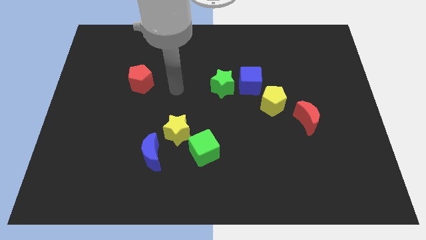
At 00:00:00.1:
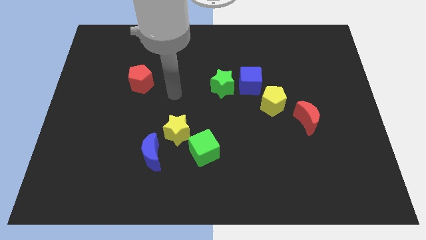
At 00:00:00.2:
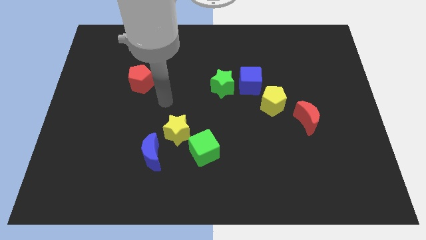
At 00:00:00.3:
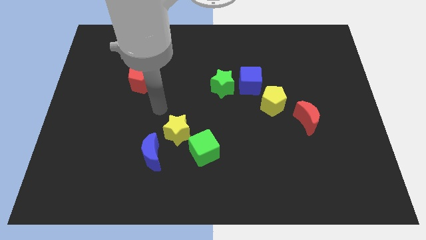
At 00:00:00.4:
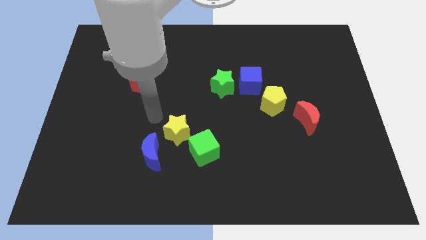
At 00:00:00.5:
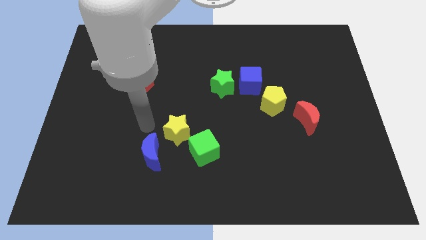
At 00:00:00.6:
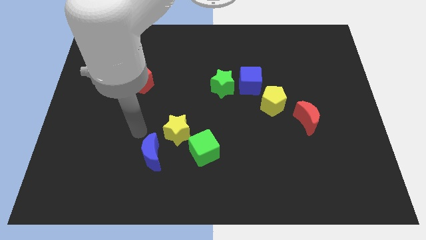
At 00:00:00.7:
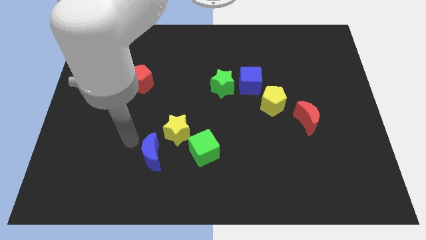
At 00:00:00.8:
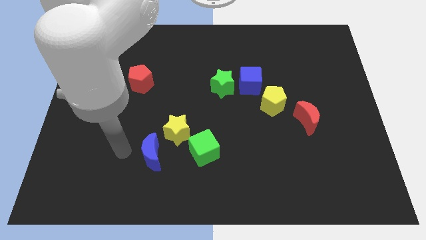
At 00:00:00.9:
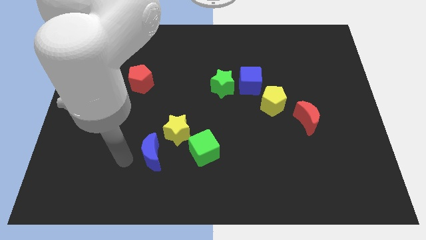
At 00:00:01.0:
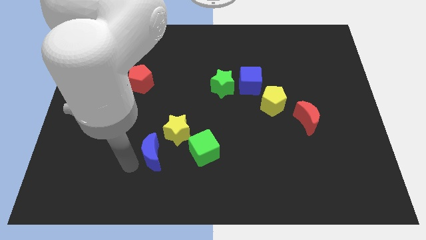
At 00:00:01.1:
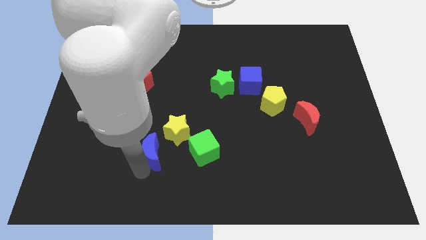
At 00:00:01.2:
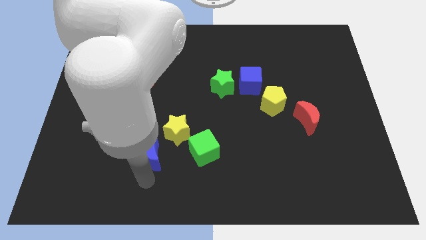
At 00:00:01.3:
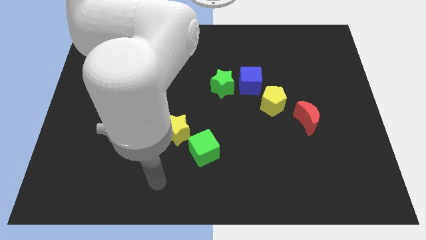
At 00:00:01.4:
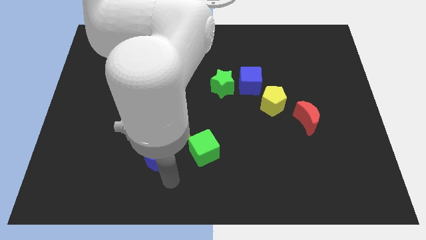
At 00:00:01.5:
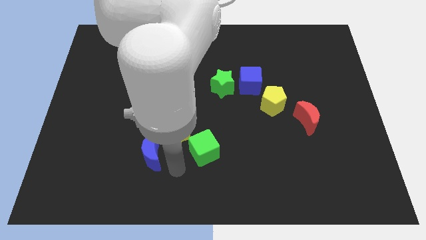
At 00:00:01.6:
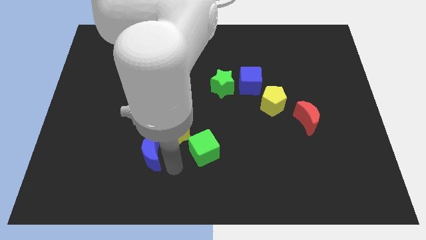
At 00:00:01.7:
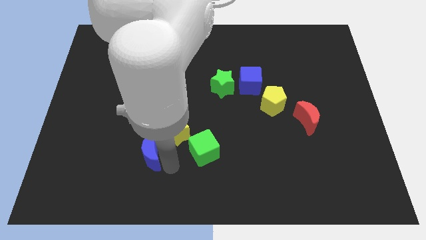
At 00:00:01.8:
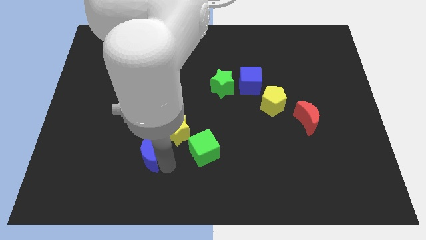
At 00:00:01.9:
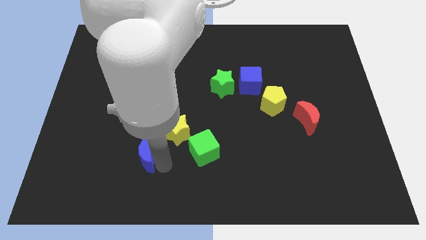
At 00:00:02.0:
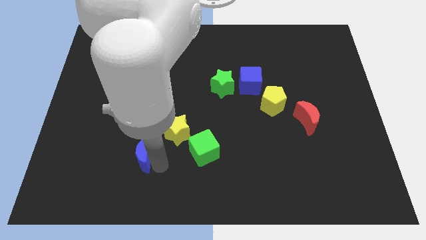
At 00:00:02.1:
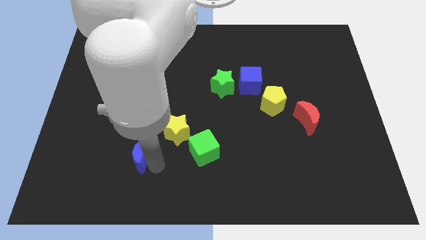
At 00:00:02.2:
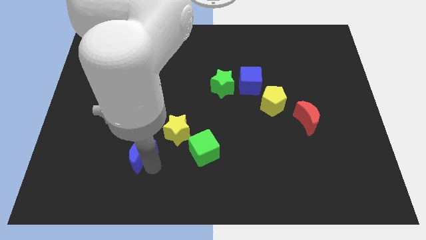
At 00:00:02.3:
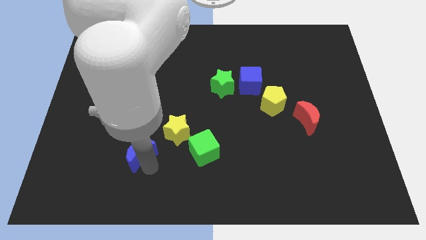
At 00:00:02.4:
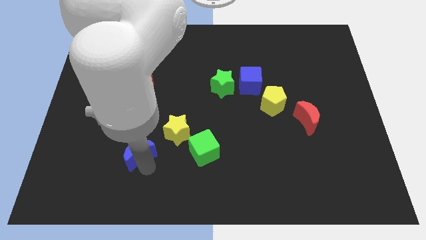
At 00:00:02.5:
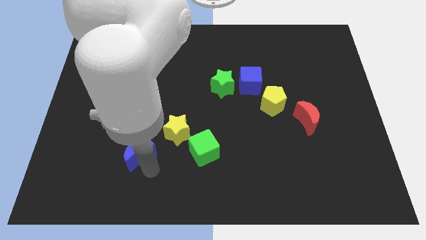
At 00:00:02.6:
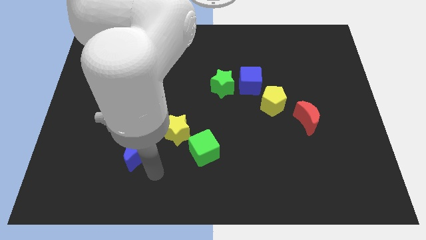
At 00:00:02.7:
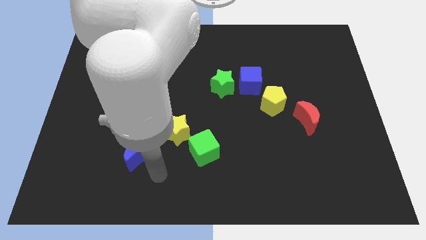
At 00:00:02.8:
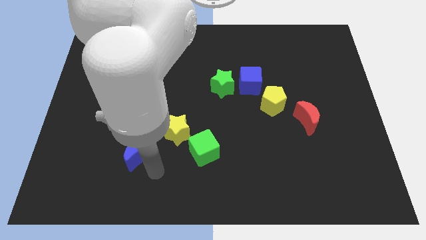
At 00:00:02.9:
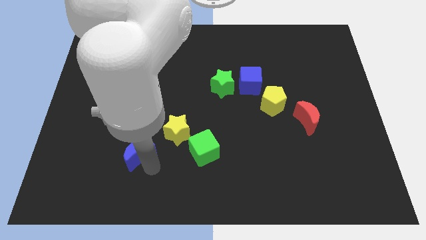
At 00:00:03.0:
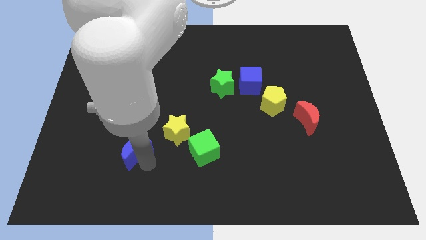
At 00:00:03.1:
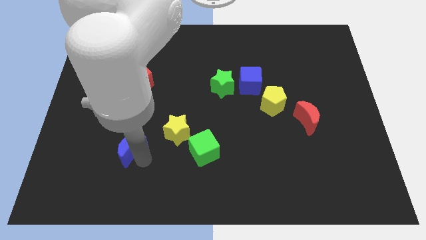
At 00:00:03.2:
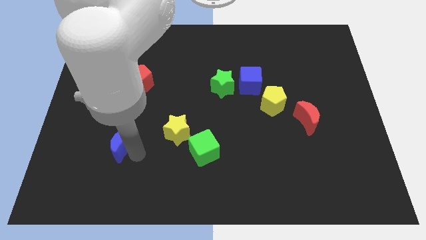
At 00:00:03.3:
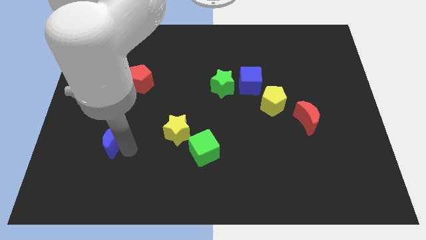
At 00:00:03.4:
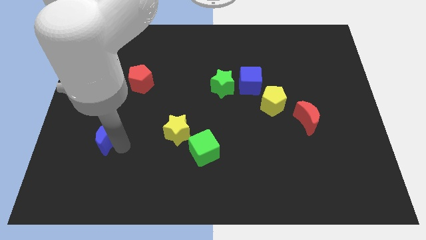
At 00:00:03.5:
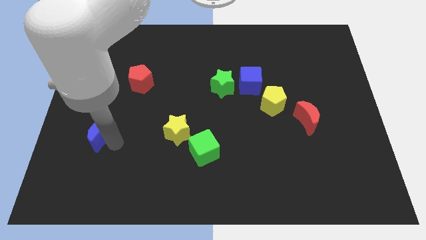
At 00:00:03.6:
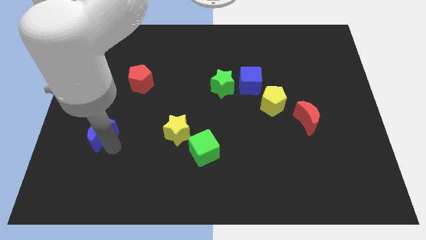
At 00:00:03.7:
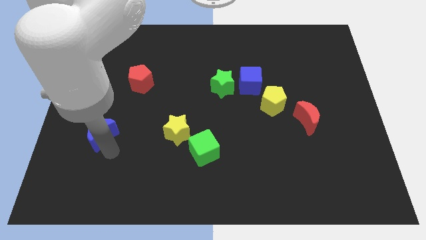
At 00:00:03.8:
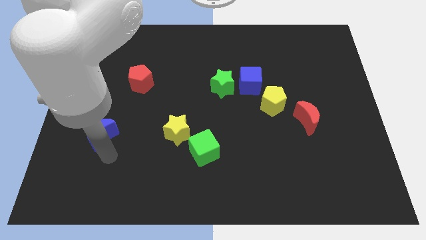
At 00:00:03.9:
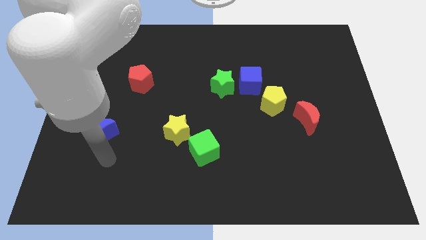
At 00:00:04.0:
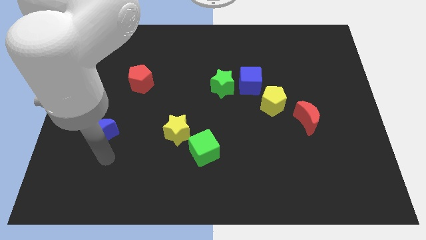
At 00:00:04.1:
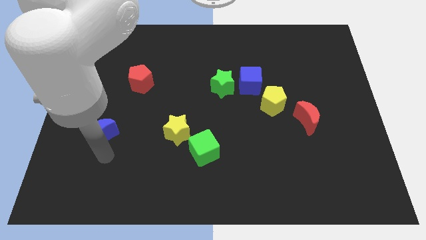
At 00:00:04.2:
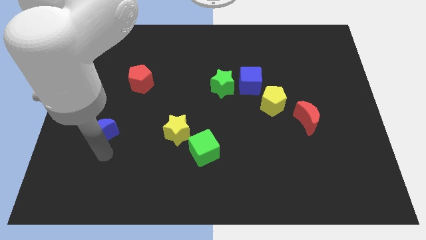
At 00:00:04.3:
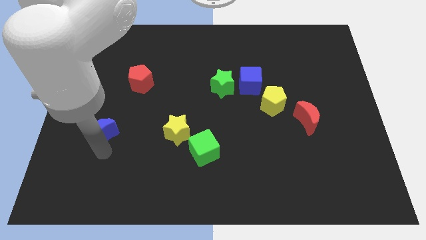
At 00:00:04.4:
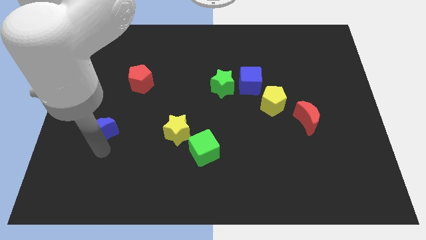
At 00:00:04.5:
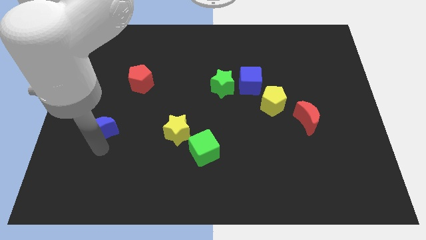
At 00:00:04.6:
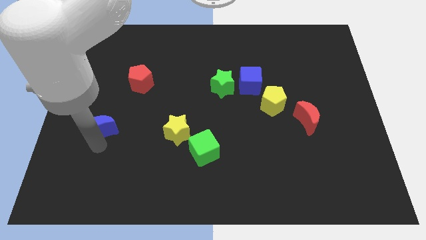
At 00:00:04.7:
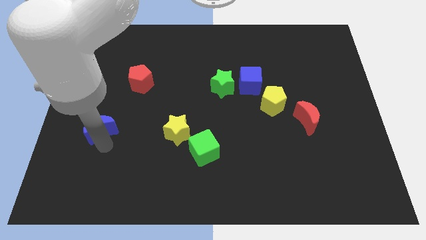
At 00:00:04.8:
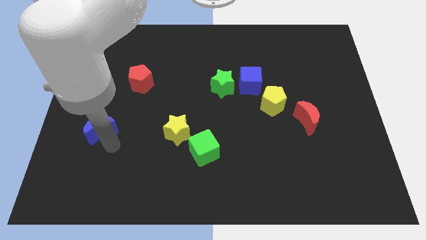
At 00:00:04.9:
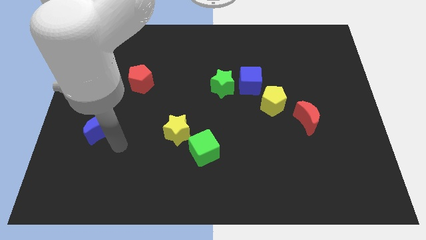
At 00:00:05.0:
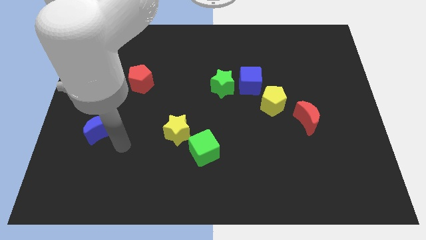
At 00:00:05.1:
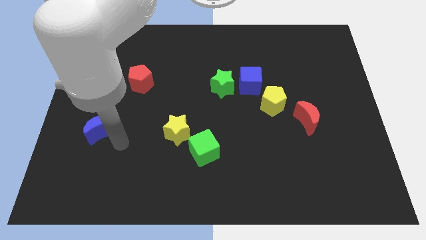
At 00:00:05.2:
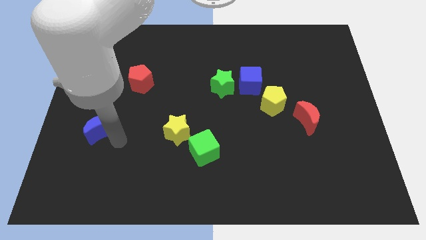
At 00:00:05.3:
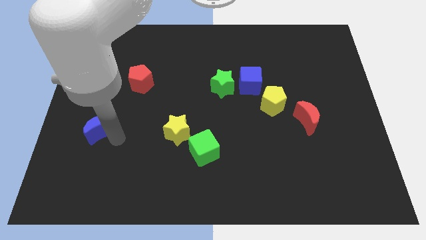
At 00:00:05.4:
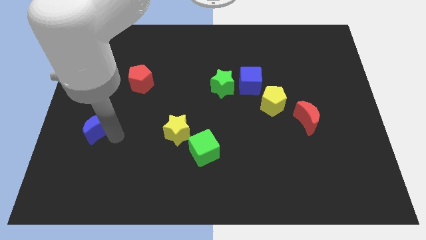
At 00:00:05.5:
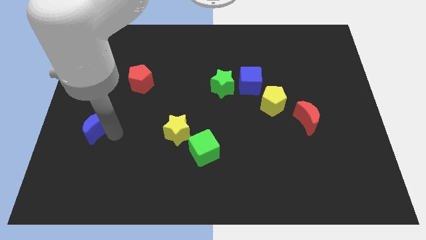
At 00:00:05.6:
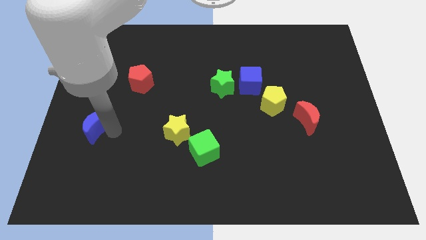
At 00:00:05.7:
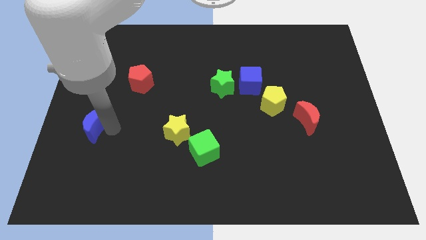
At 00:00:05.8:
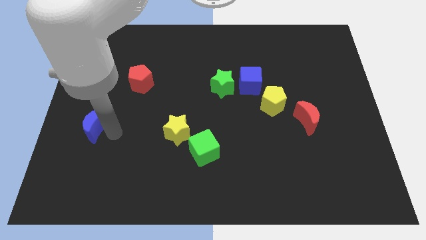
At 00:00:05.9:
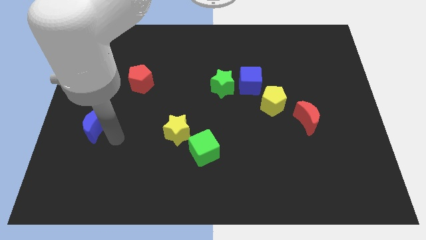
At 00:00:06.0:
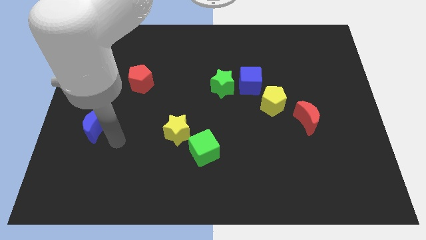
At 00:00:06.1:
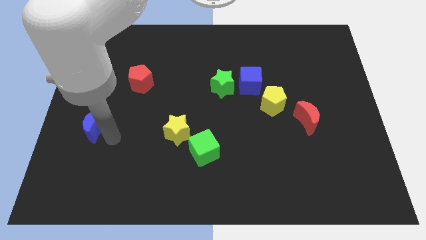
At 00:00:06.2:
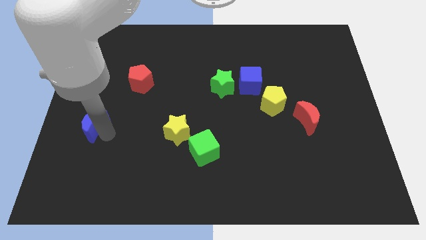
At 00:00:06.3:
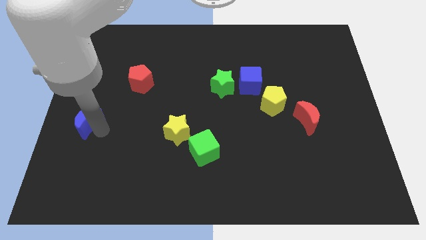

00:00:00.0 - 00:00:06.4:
push the blue moon to the center left

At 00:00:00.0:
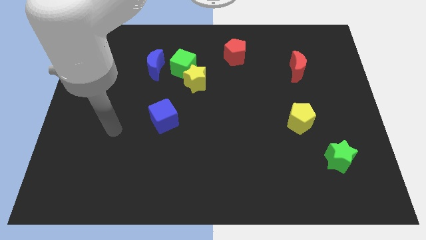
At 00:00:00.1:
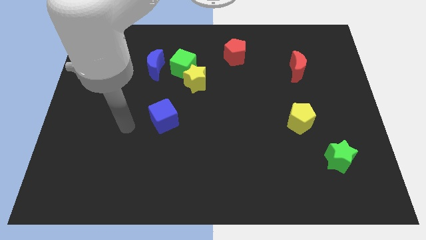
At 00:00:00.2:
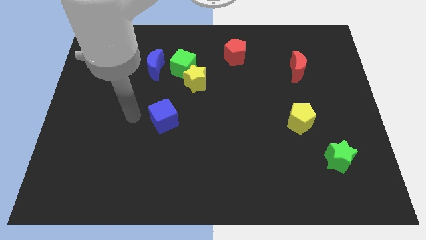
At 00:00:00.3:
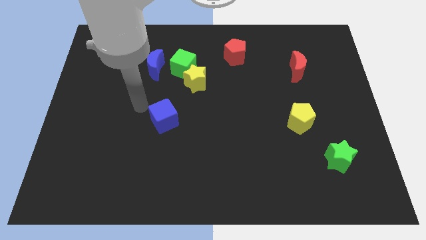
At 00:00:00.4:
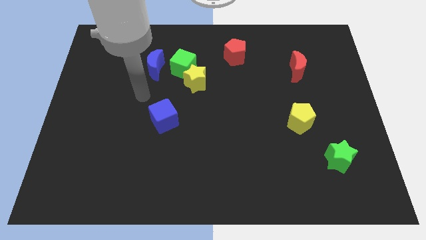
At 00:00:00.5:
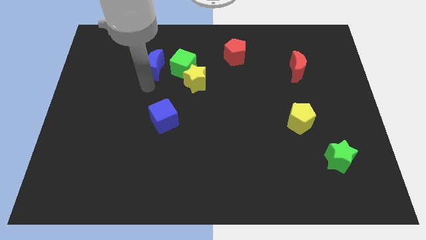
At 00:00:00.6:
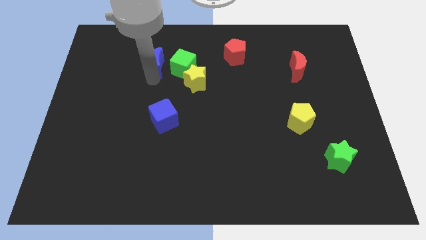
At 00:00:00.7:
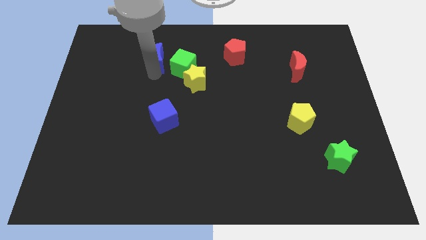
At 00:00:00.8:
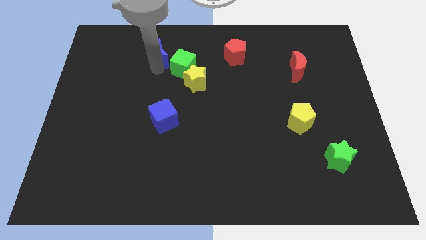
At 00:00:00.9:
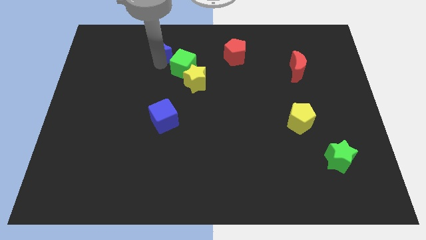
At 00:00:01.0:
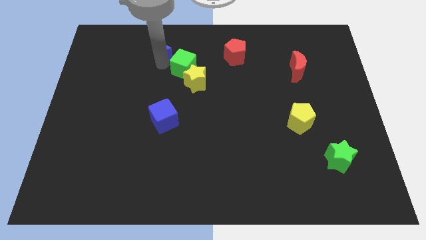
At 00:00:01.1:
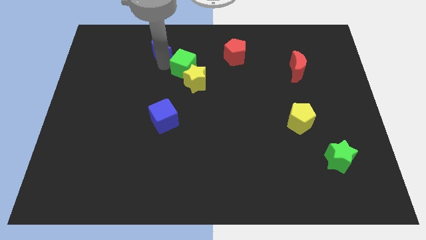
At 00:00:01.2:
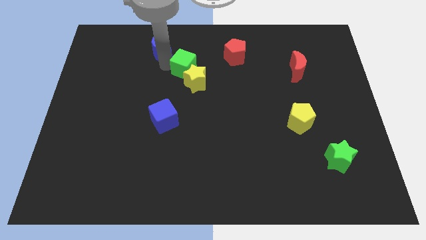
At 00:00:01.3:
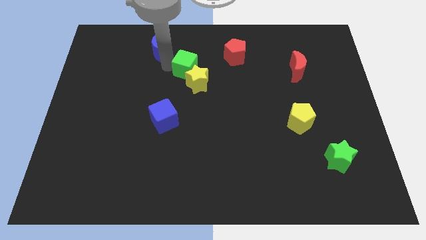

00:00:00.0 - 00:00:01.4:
move the green cube to the middle of the board
